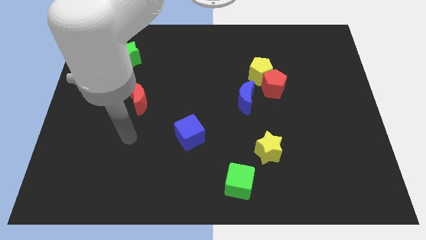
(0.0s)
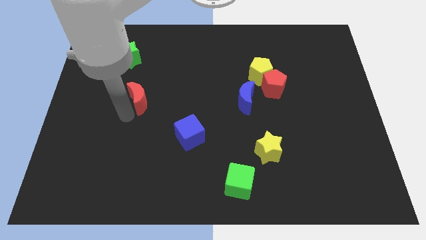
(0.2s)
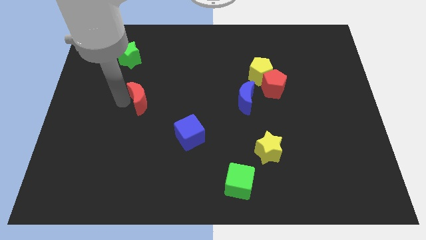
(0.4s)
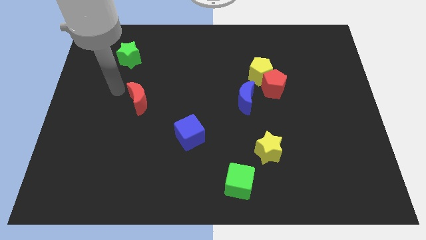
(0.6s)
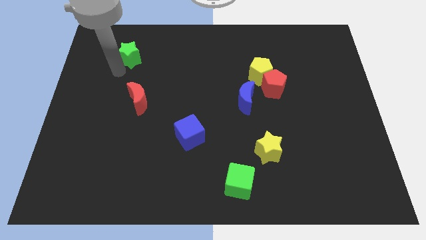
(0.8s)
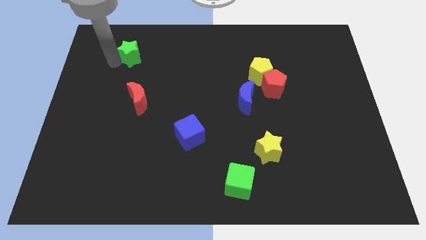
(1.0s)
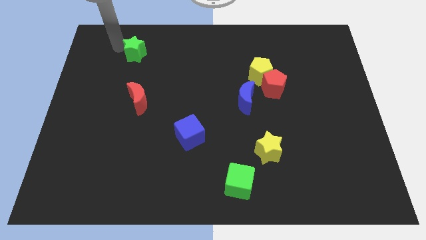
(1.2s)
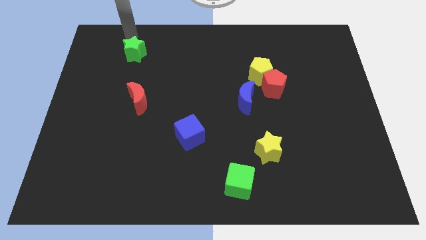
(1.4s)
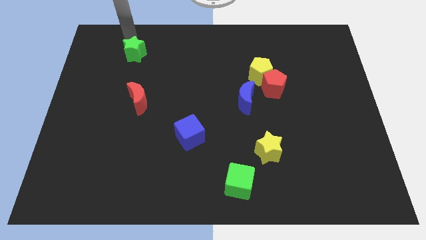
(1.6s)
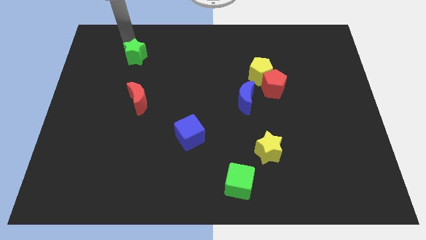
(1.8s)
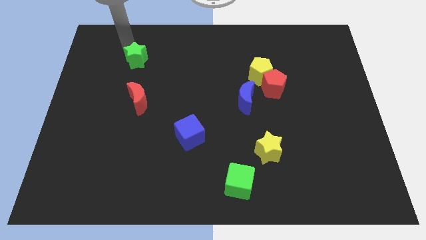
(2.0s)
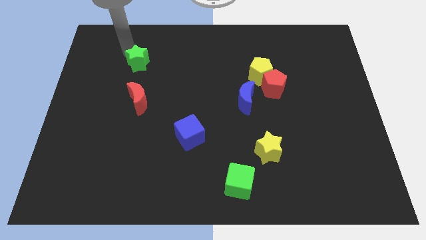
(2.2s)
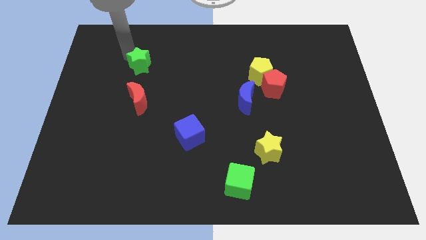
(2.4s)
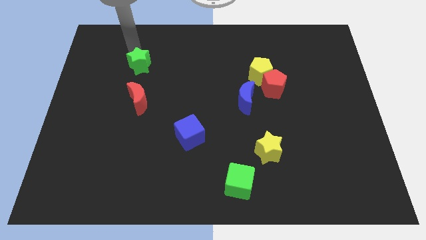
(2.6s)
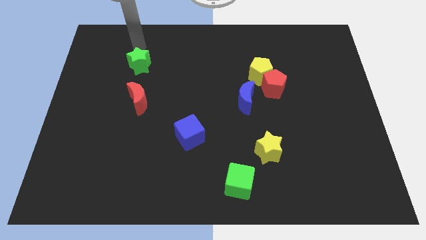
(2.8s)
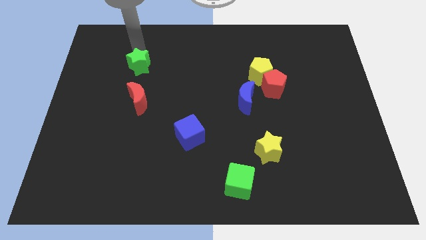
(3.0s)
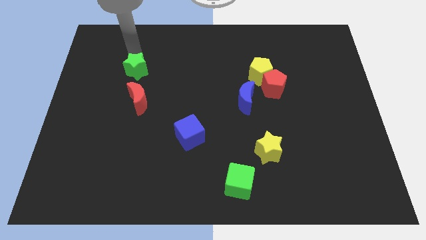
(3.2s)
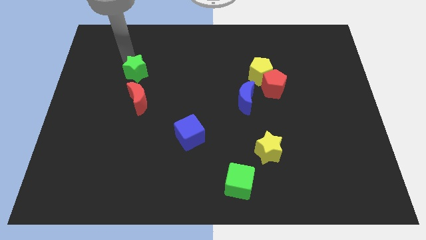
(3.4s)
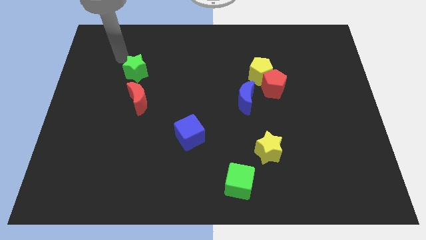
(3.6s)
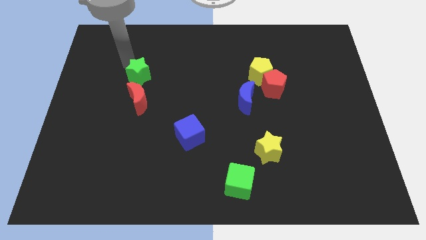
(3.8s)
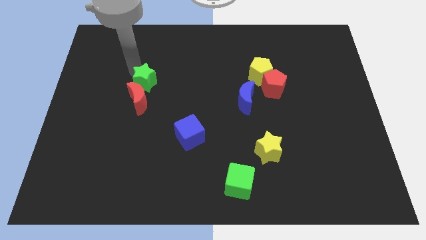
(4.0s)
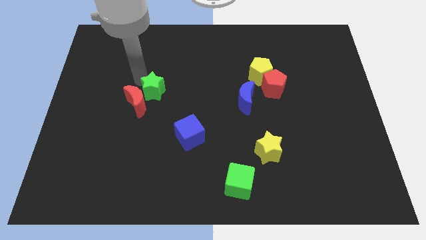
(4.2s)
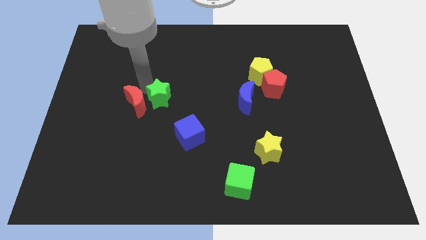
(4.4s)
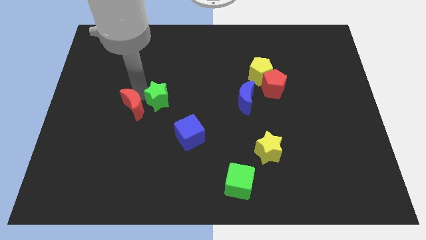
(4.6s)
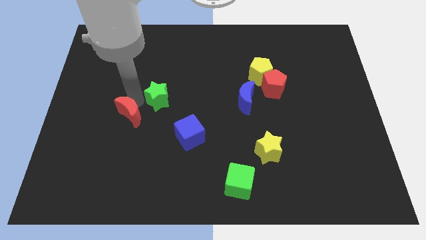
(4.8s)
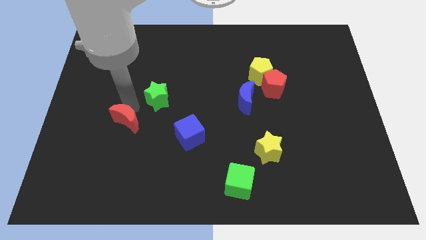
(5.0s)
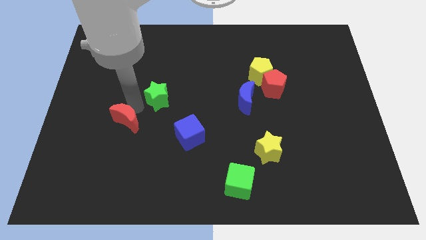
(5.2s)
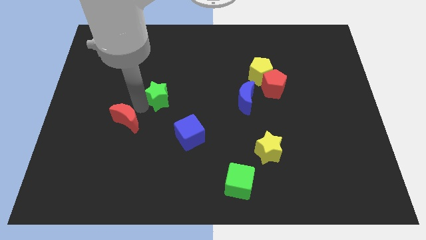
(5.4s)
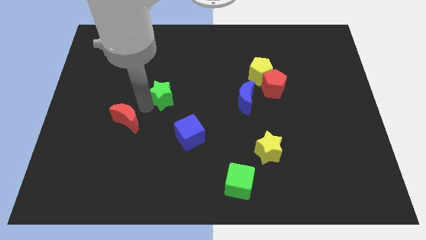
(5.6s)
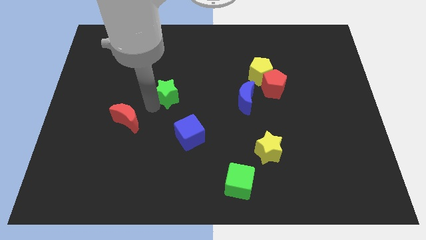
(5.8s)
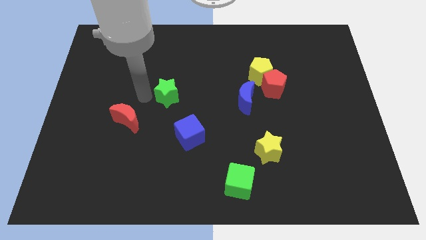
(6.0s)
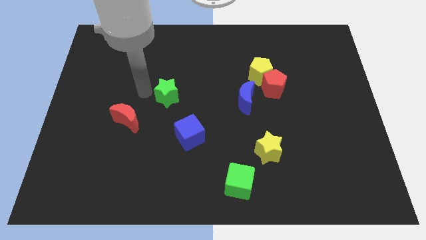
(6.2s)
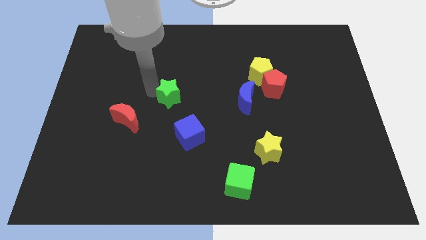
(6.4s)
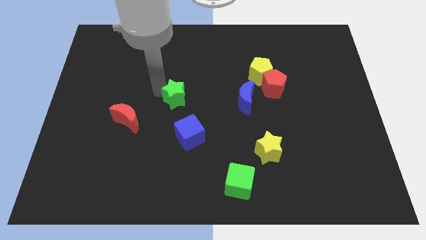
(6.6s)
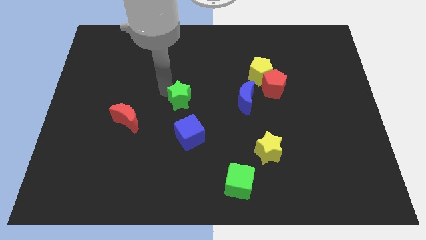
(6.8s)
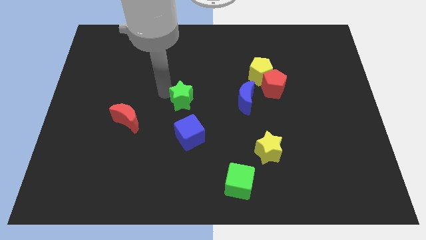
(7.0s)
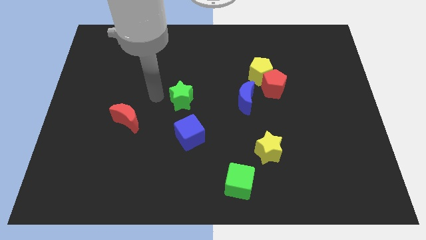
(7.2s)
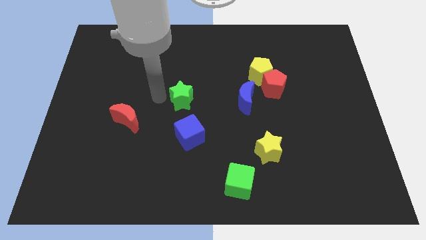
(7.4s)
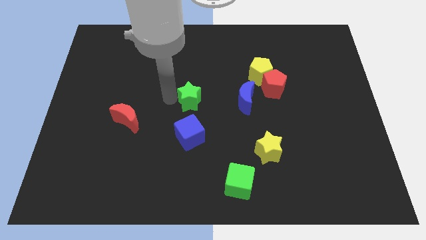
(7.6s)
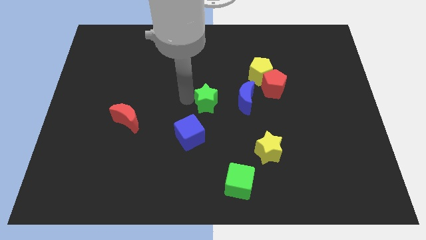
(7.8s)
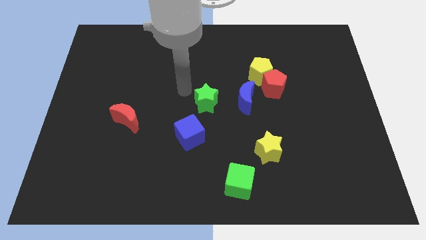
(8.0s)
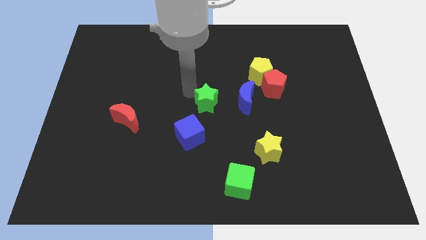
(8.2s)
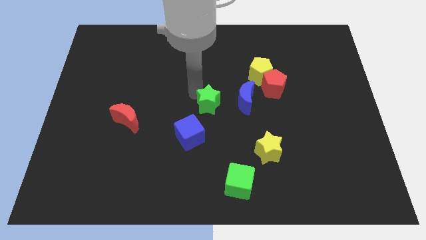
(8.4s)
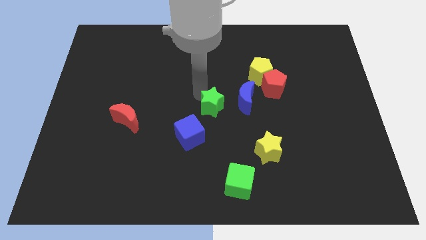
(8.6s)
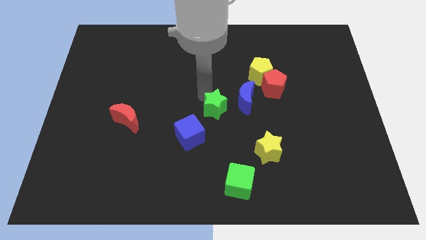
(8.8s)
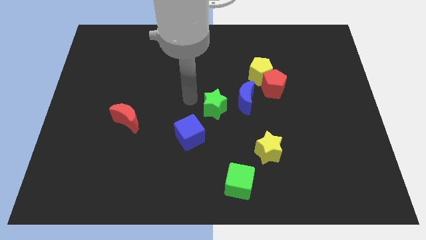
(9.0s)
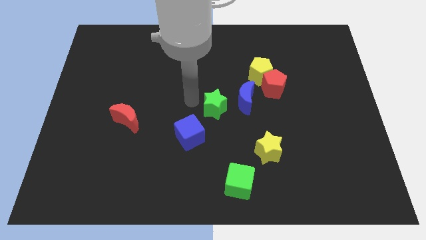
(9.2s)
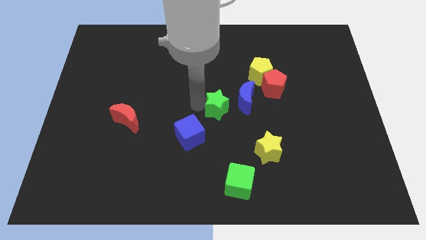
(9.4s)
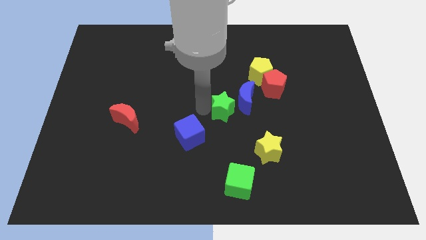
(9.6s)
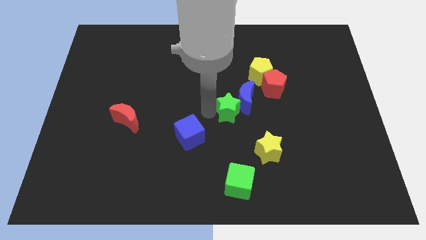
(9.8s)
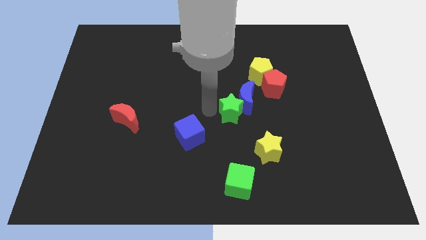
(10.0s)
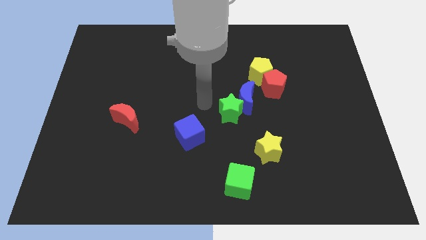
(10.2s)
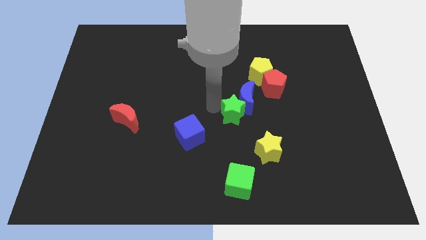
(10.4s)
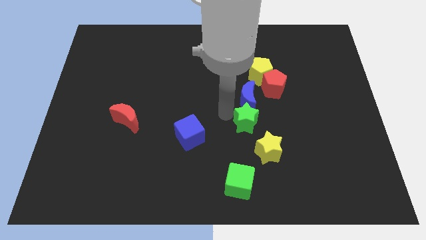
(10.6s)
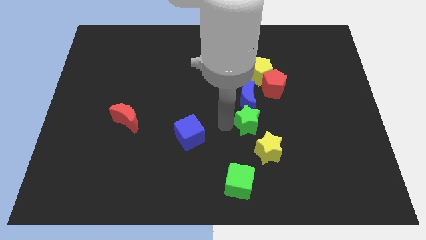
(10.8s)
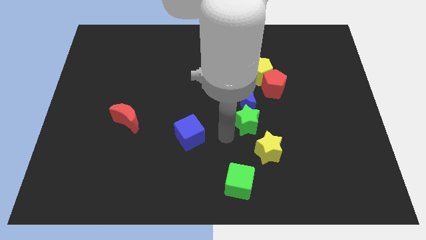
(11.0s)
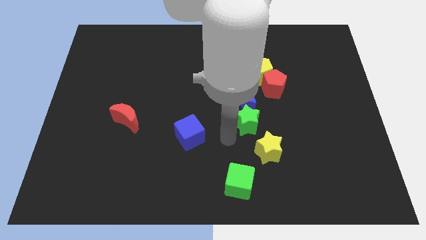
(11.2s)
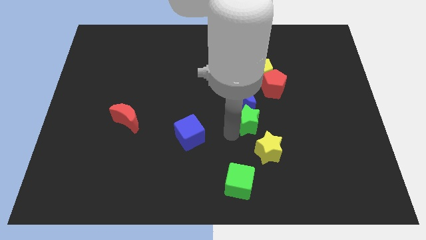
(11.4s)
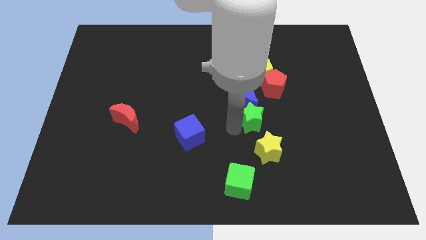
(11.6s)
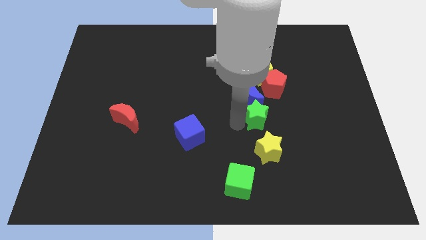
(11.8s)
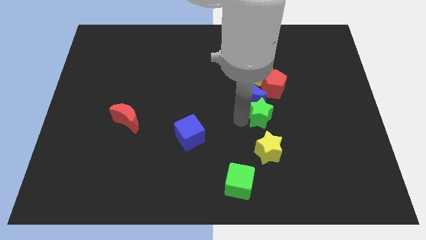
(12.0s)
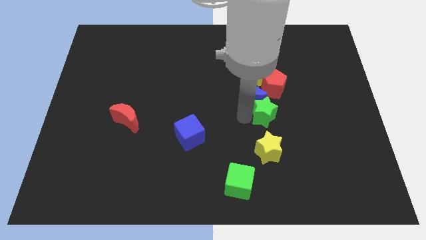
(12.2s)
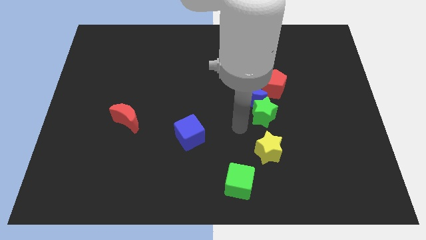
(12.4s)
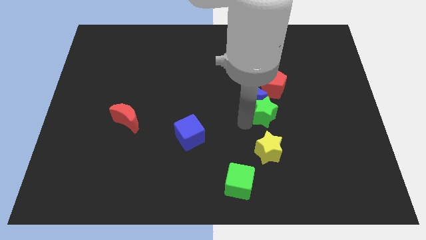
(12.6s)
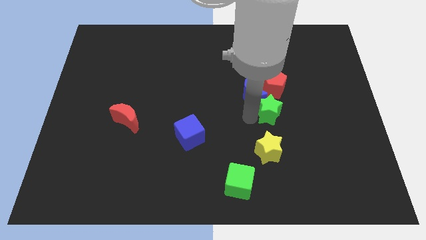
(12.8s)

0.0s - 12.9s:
move the green star just right of the blue moon
